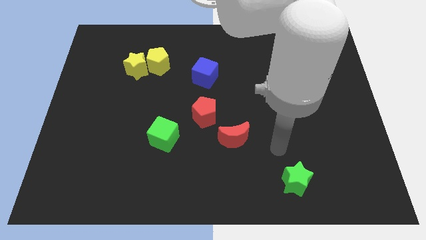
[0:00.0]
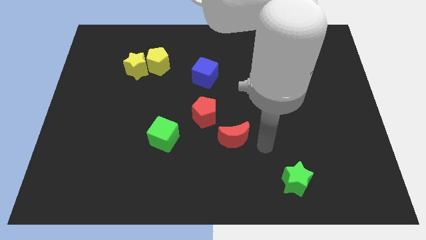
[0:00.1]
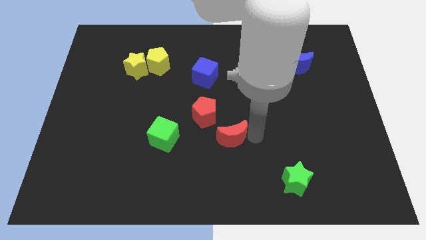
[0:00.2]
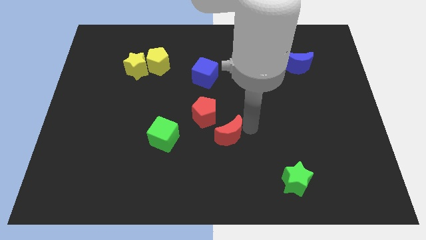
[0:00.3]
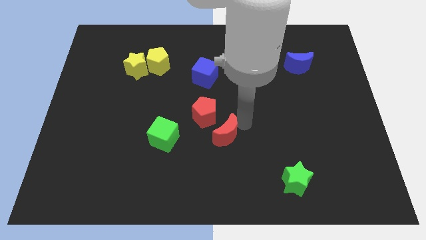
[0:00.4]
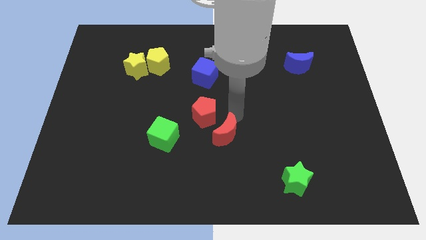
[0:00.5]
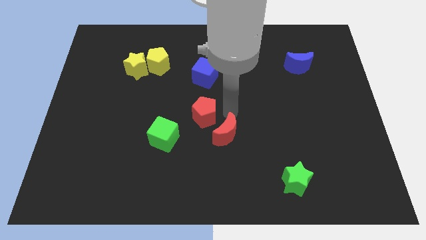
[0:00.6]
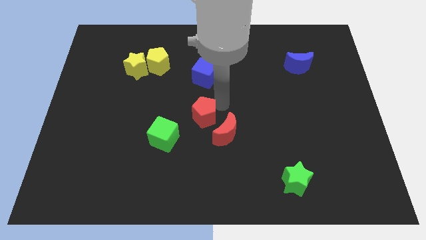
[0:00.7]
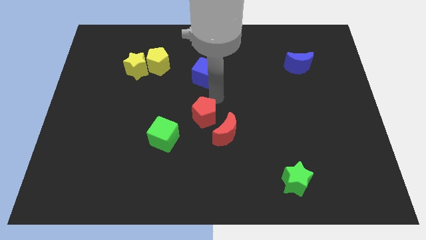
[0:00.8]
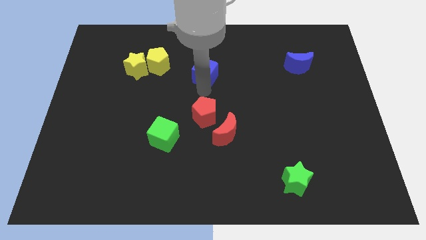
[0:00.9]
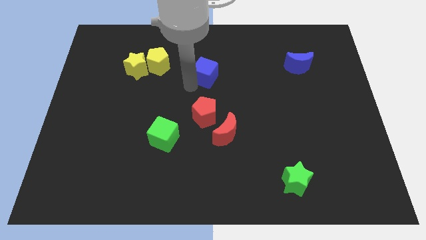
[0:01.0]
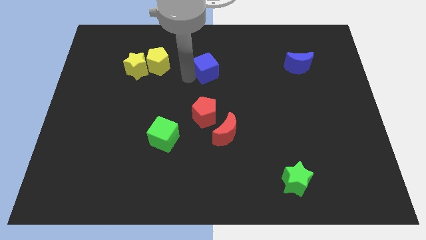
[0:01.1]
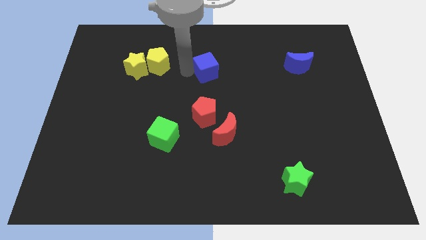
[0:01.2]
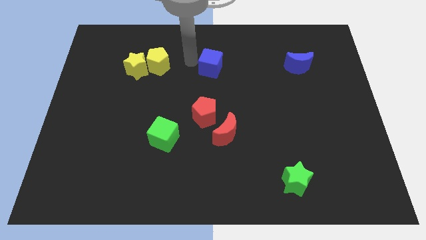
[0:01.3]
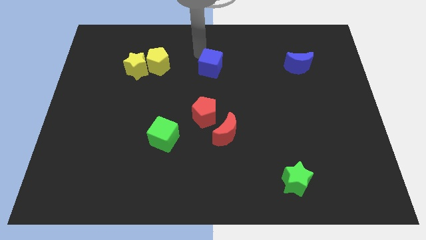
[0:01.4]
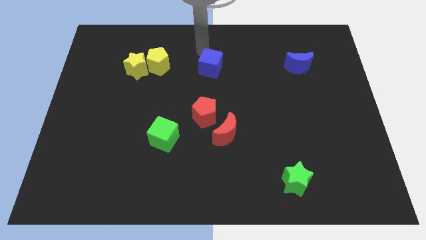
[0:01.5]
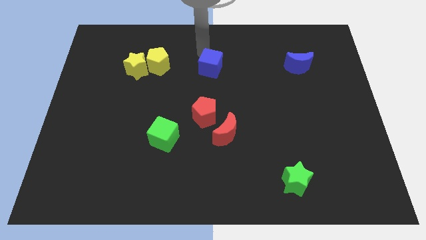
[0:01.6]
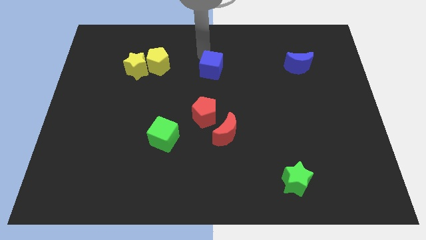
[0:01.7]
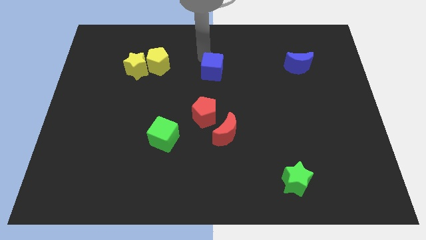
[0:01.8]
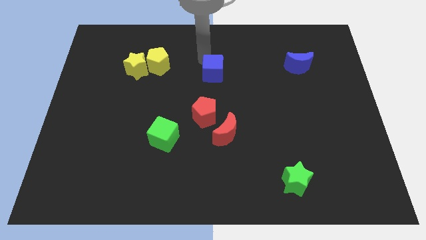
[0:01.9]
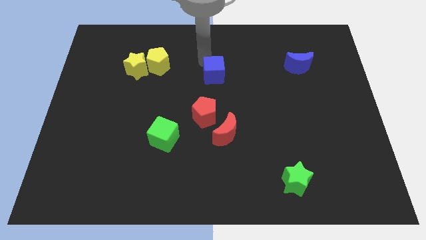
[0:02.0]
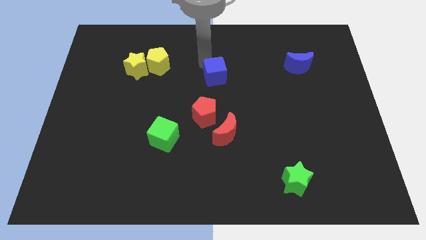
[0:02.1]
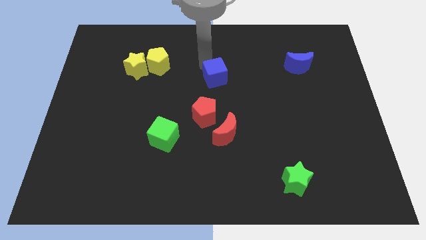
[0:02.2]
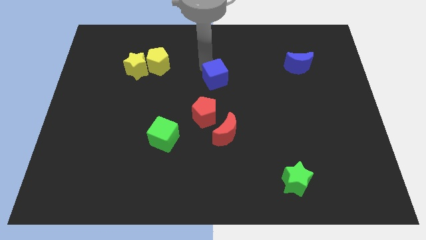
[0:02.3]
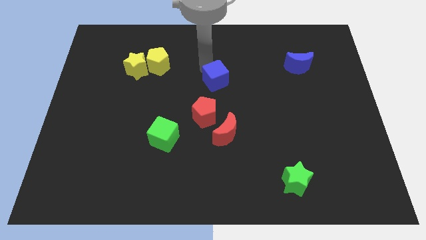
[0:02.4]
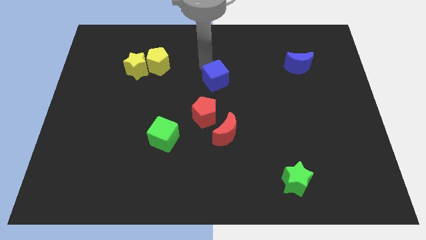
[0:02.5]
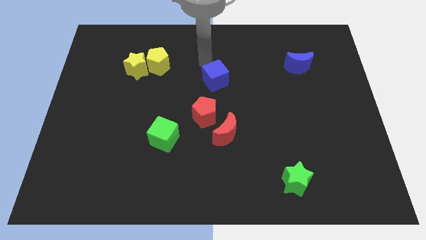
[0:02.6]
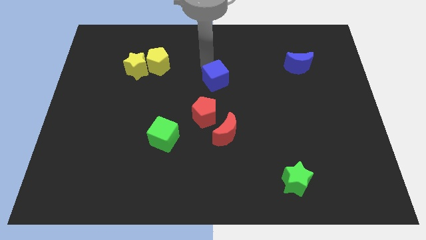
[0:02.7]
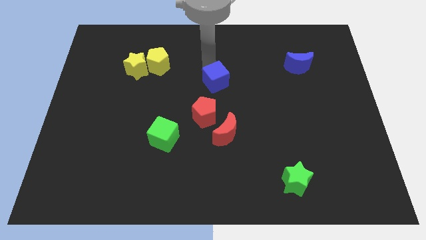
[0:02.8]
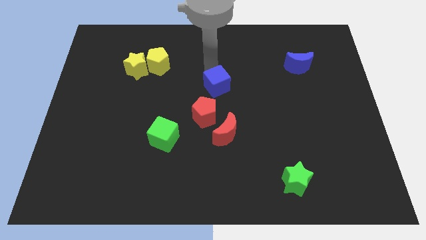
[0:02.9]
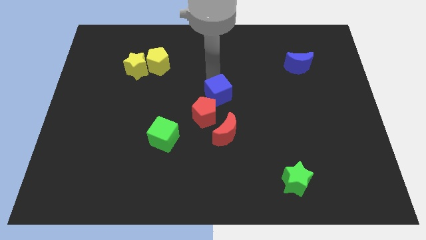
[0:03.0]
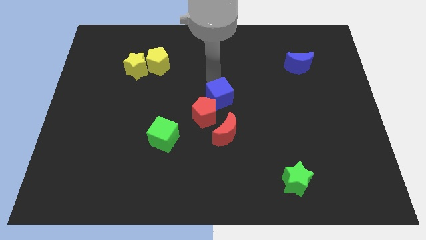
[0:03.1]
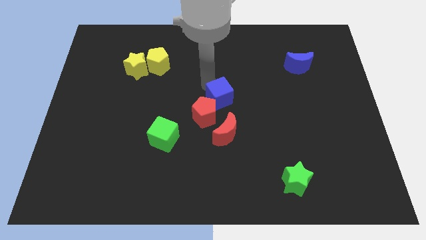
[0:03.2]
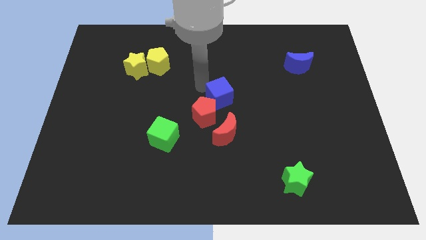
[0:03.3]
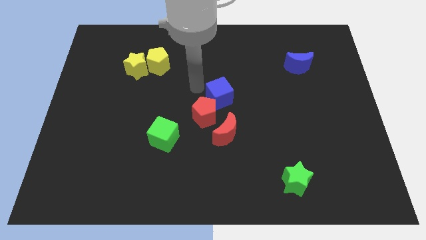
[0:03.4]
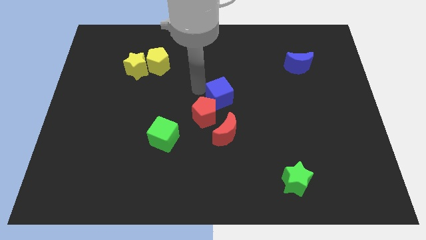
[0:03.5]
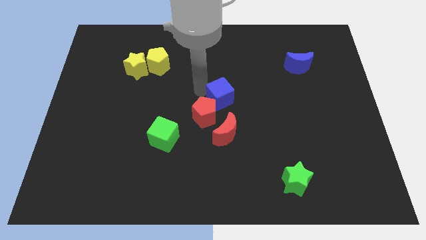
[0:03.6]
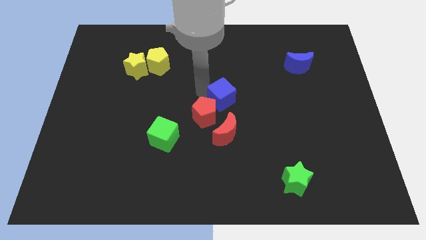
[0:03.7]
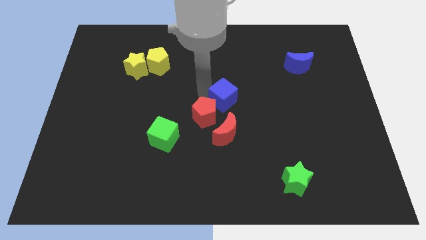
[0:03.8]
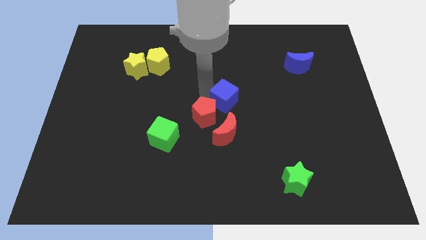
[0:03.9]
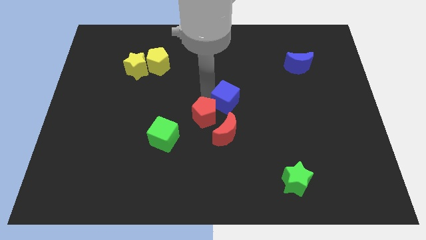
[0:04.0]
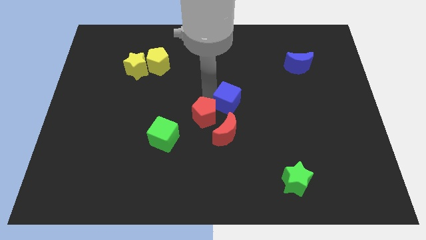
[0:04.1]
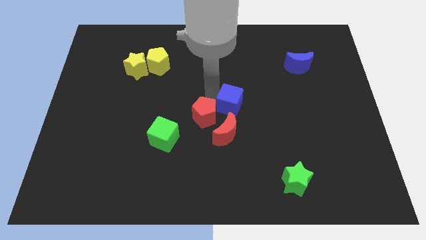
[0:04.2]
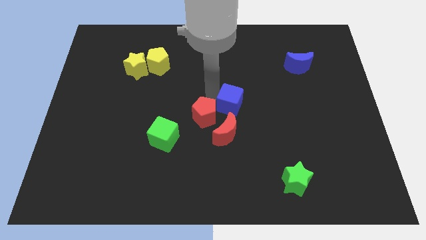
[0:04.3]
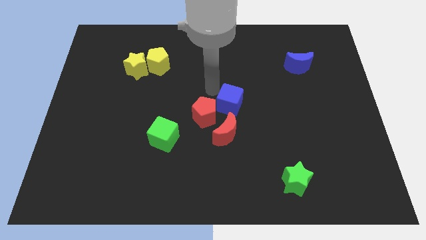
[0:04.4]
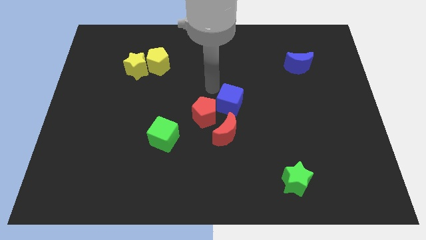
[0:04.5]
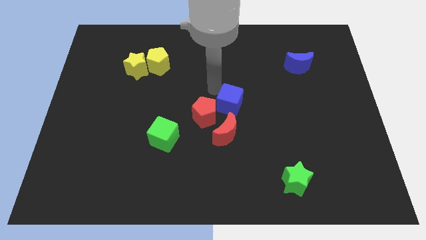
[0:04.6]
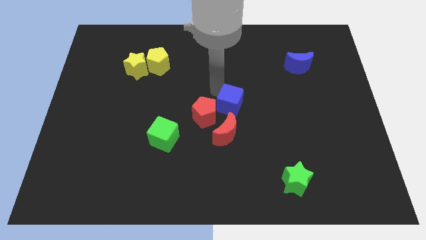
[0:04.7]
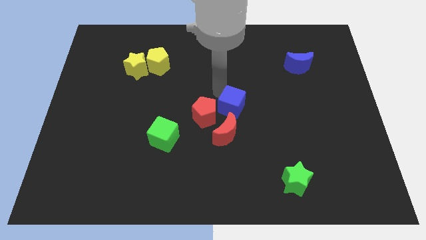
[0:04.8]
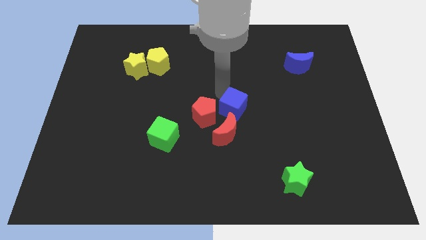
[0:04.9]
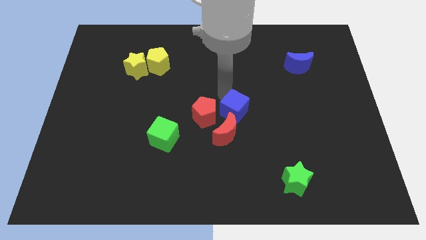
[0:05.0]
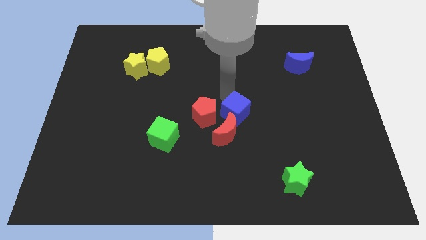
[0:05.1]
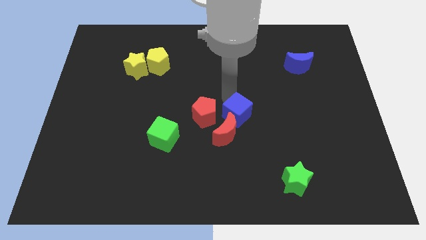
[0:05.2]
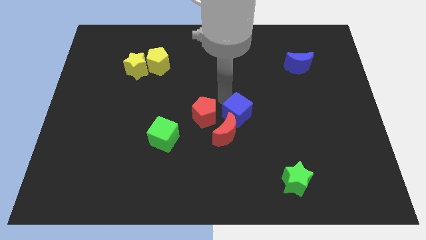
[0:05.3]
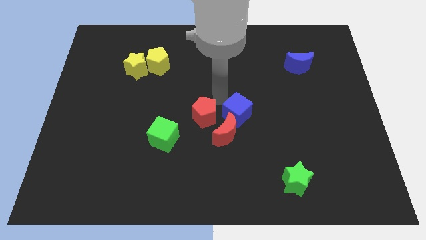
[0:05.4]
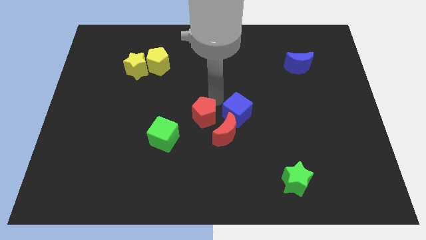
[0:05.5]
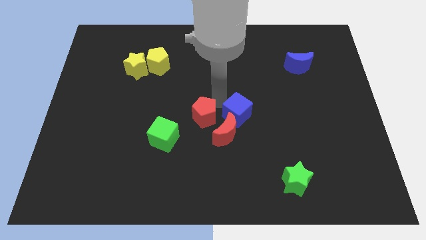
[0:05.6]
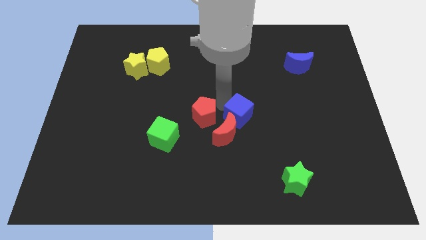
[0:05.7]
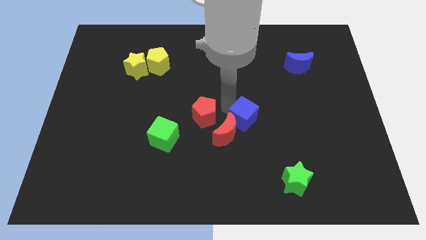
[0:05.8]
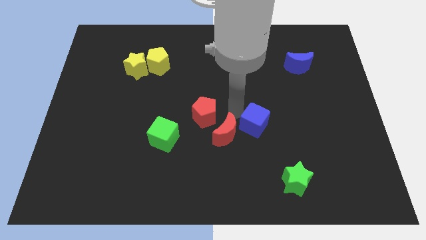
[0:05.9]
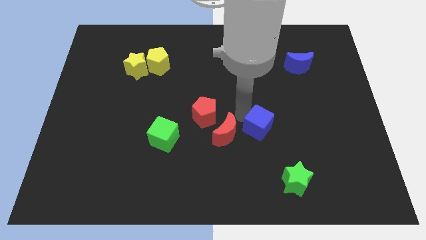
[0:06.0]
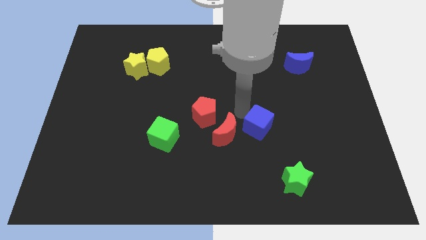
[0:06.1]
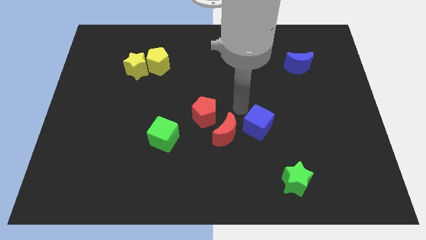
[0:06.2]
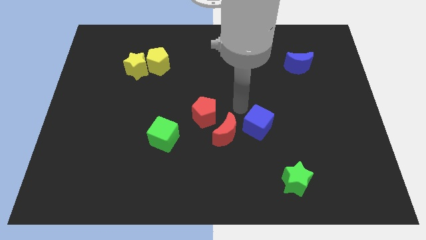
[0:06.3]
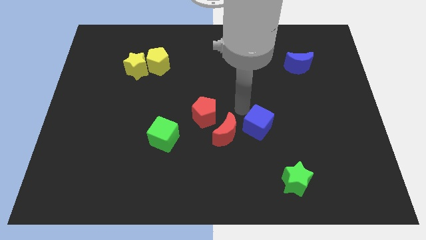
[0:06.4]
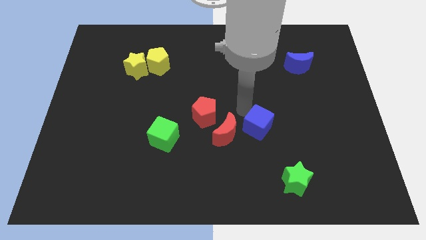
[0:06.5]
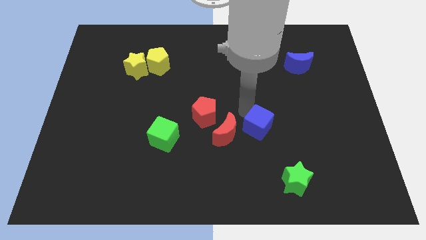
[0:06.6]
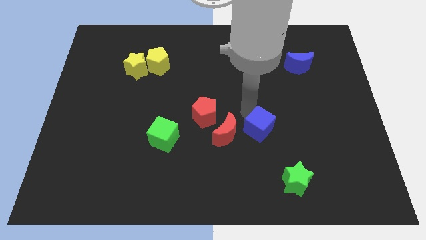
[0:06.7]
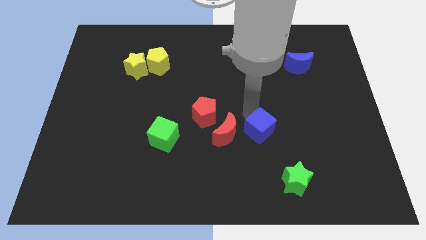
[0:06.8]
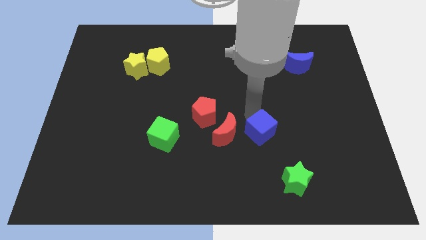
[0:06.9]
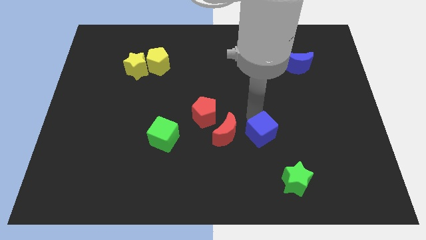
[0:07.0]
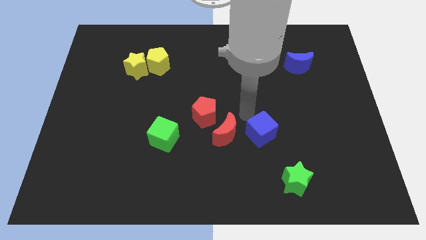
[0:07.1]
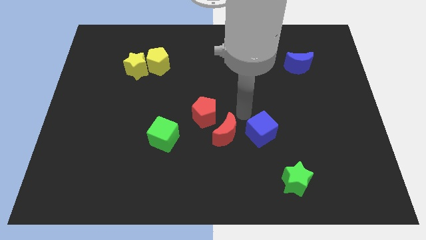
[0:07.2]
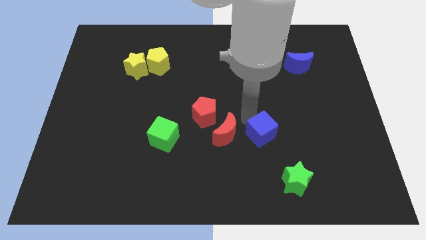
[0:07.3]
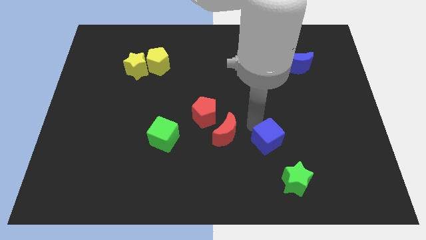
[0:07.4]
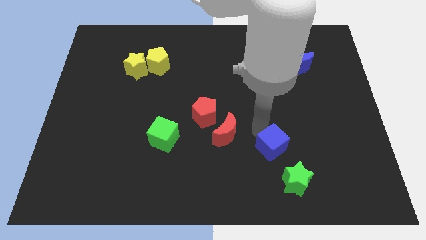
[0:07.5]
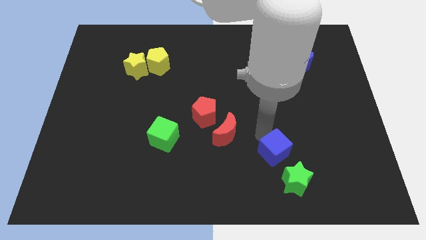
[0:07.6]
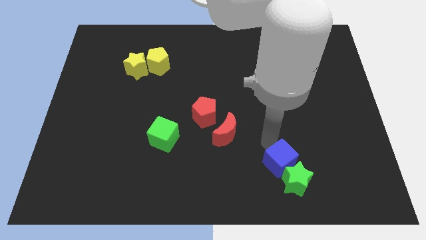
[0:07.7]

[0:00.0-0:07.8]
move the blue cube close to the green star
